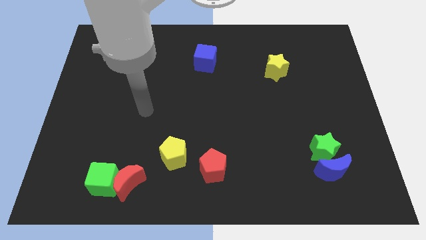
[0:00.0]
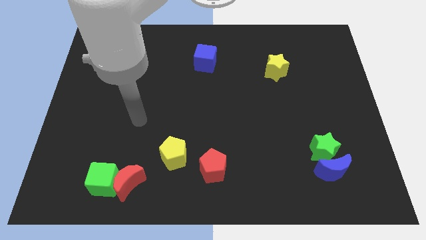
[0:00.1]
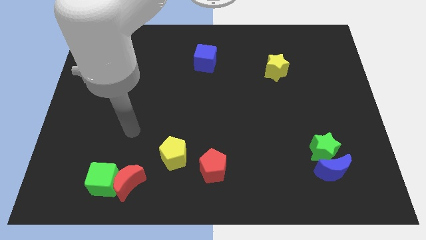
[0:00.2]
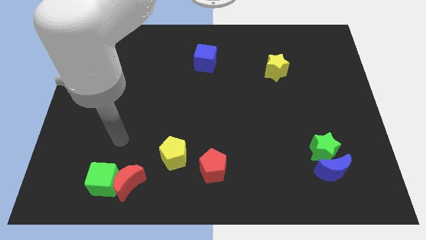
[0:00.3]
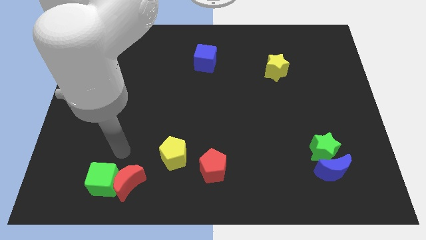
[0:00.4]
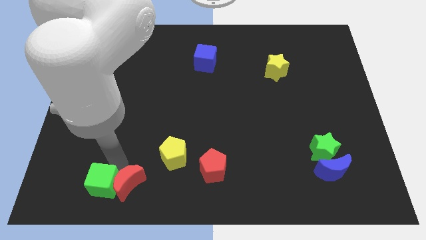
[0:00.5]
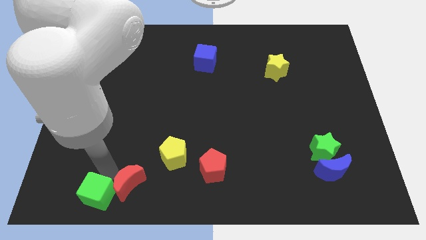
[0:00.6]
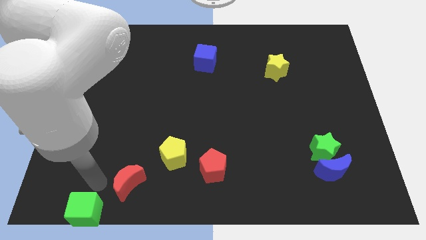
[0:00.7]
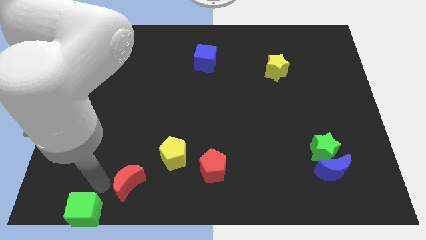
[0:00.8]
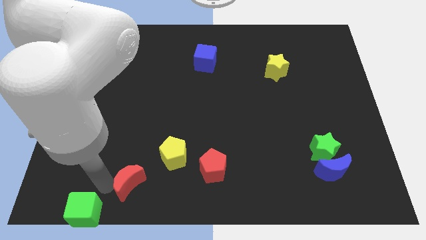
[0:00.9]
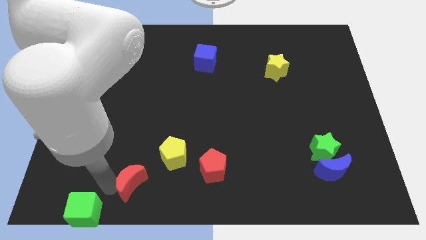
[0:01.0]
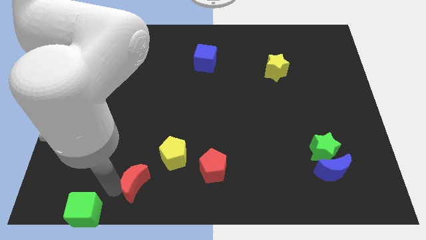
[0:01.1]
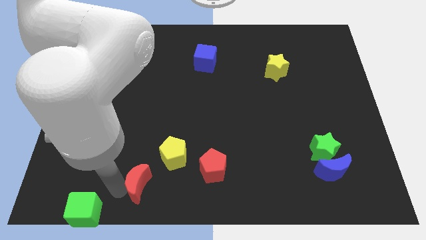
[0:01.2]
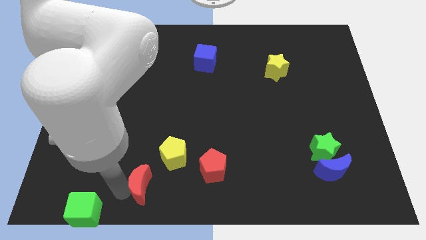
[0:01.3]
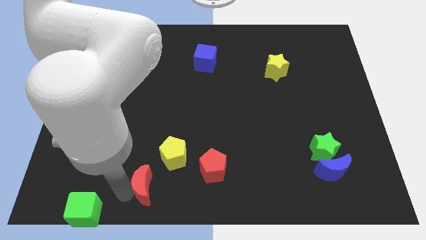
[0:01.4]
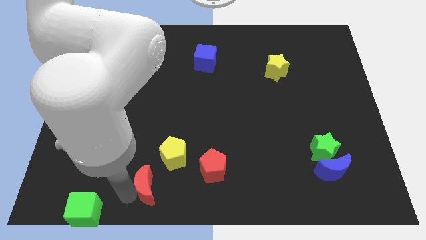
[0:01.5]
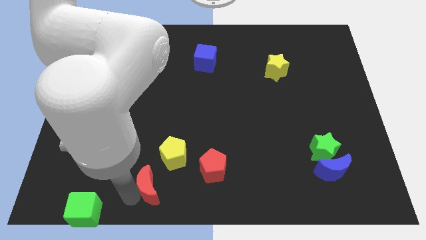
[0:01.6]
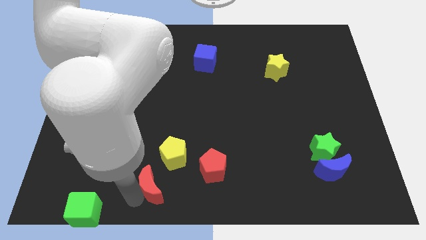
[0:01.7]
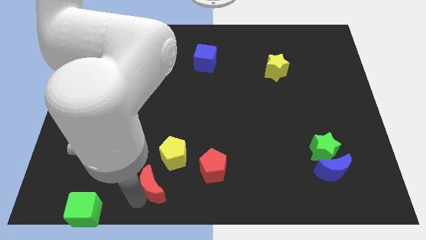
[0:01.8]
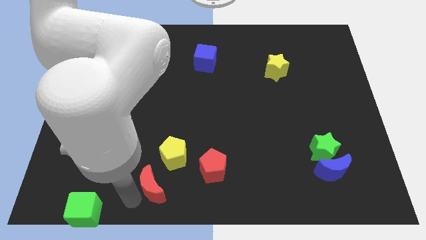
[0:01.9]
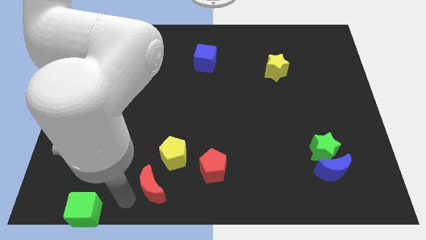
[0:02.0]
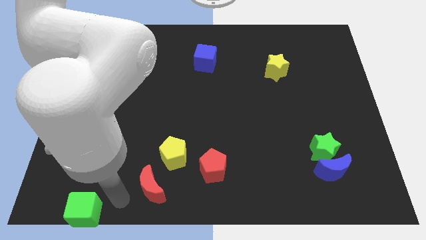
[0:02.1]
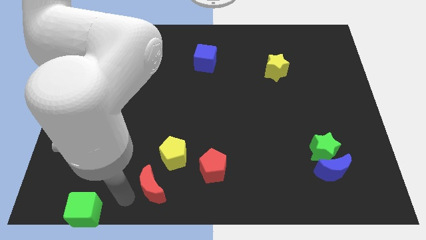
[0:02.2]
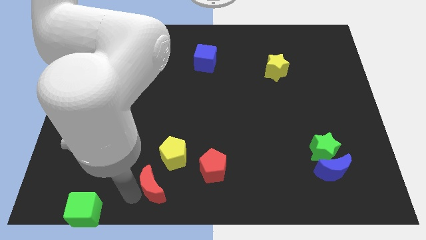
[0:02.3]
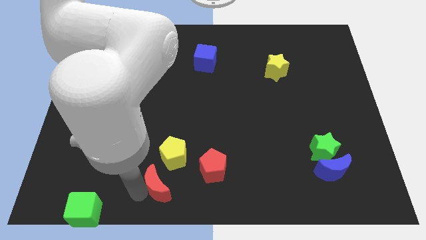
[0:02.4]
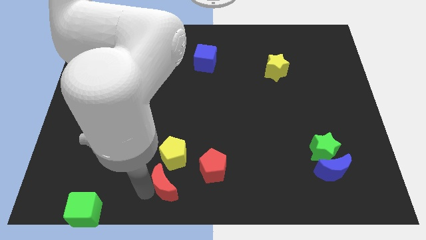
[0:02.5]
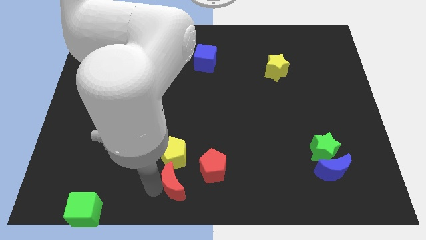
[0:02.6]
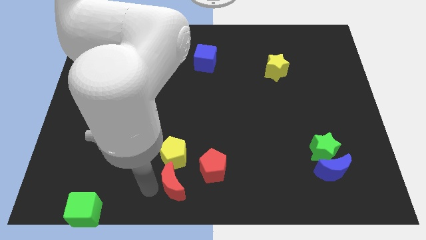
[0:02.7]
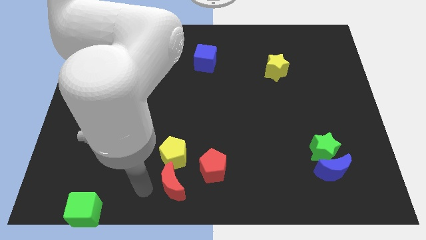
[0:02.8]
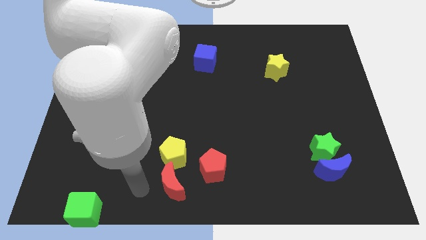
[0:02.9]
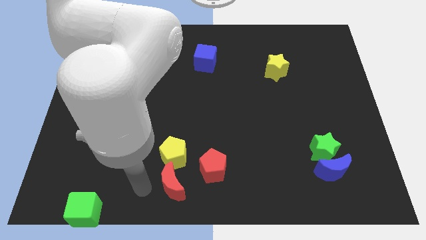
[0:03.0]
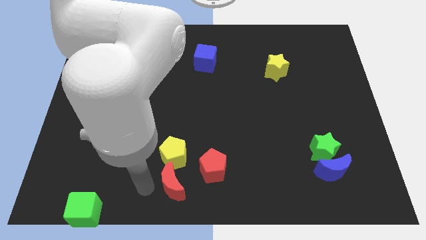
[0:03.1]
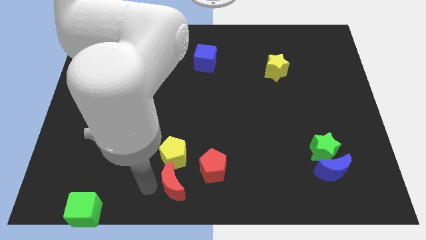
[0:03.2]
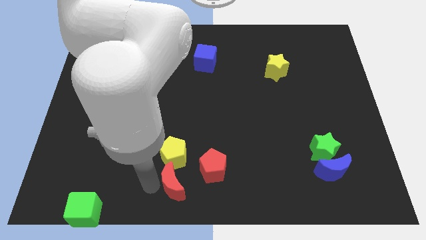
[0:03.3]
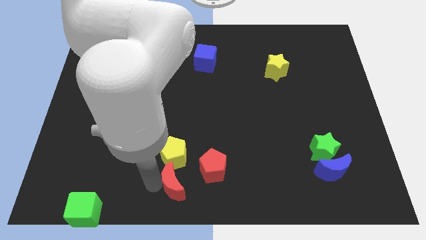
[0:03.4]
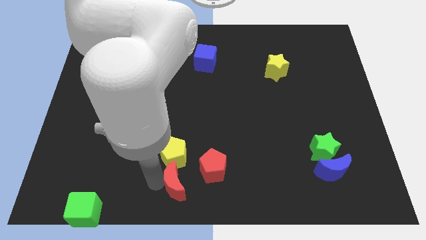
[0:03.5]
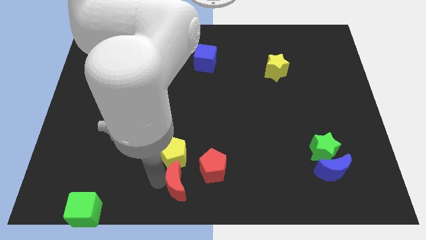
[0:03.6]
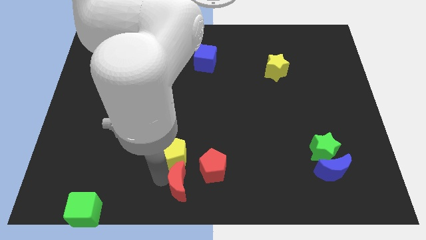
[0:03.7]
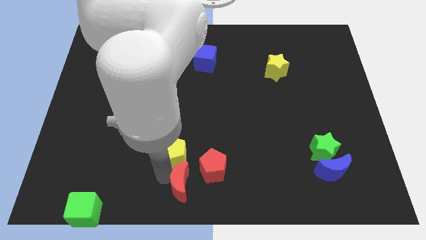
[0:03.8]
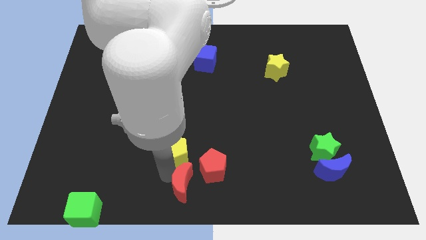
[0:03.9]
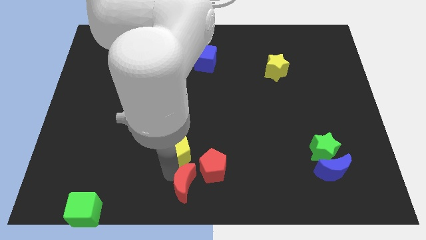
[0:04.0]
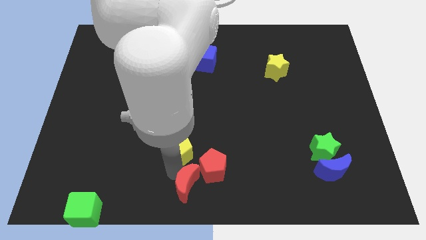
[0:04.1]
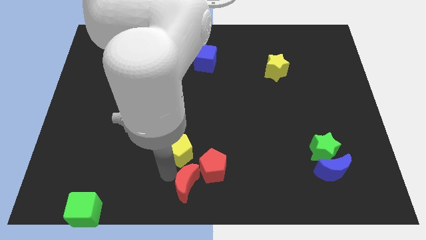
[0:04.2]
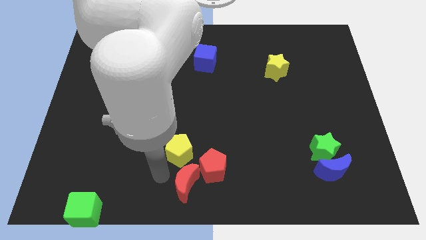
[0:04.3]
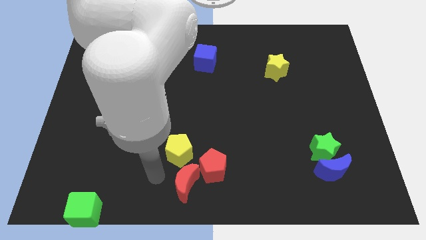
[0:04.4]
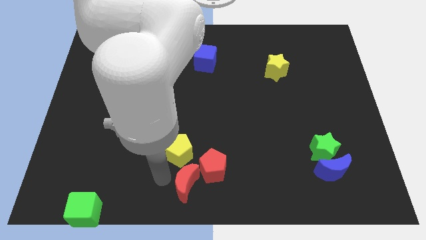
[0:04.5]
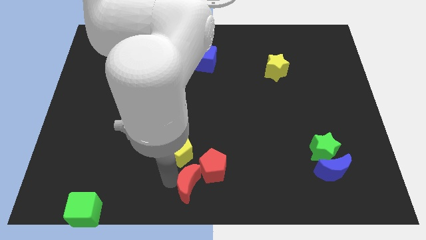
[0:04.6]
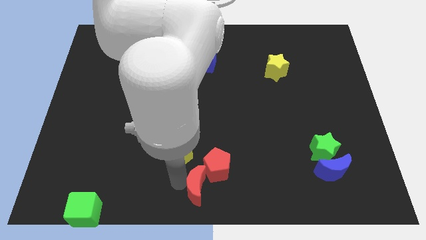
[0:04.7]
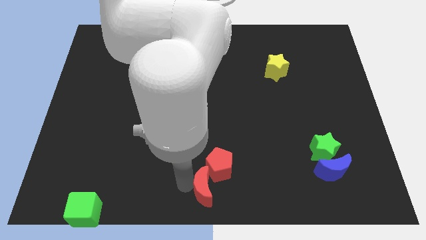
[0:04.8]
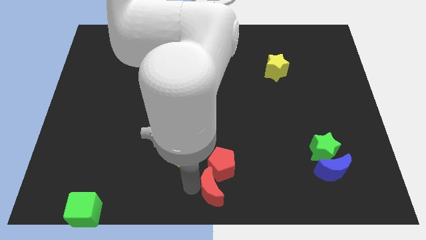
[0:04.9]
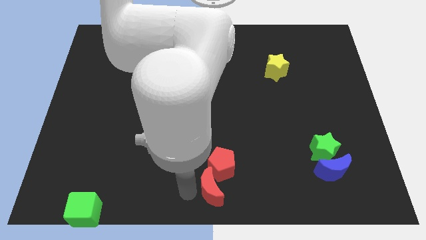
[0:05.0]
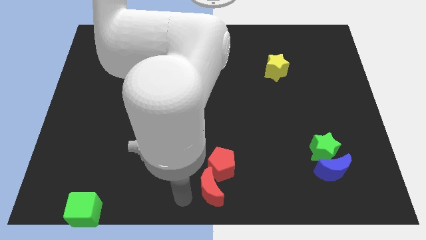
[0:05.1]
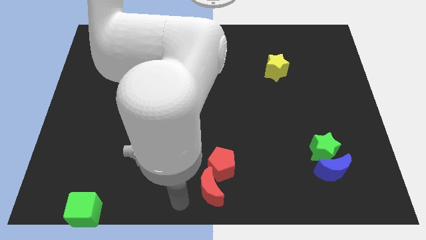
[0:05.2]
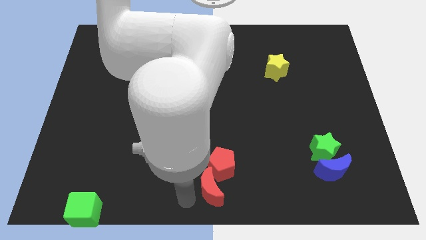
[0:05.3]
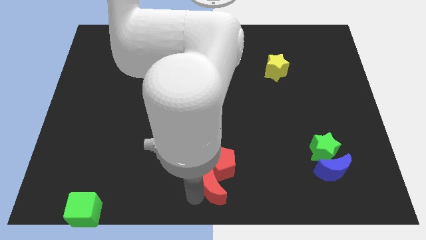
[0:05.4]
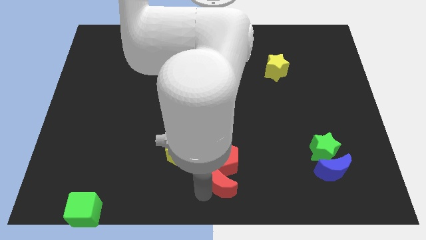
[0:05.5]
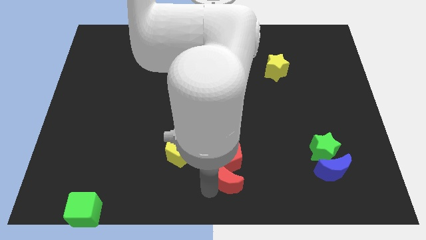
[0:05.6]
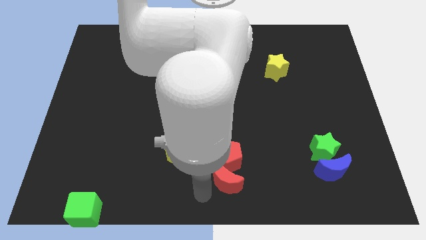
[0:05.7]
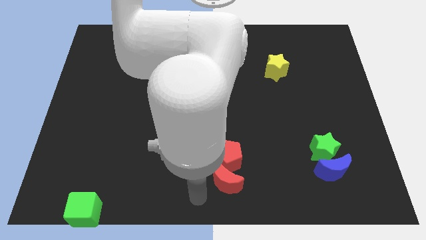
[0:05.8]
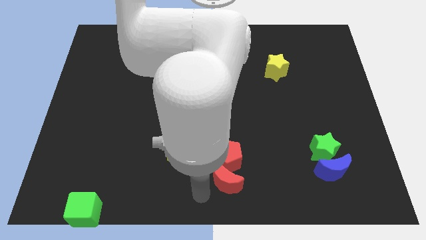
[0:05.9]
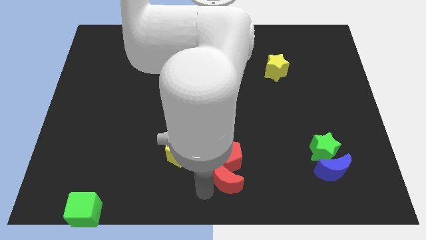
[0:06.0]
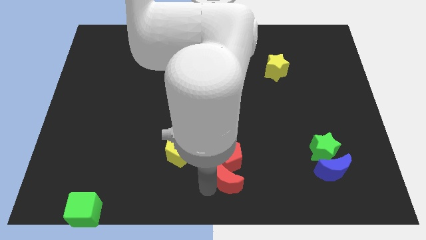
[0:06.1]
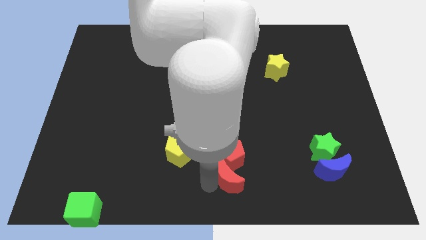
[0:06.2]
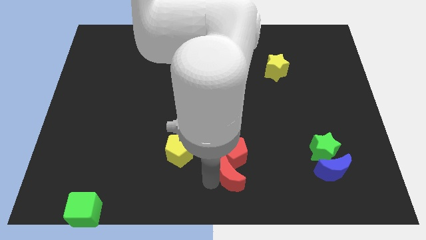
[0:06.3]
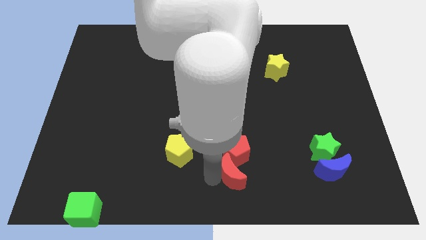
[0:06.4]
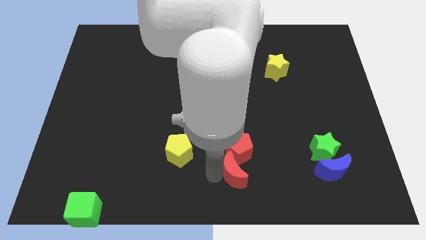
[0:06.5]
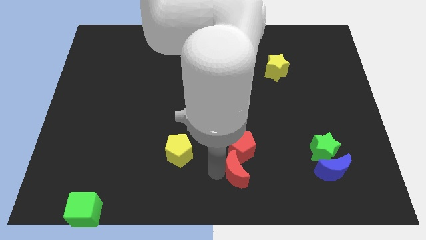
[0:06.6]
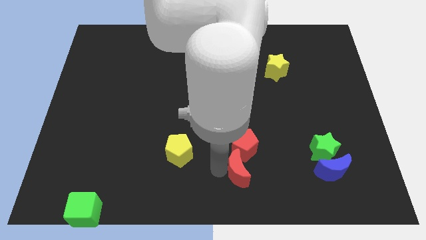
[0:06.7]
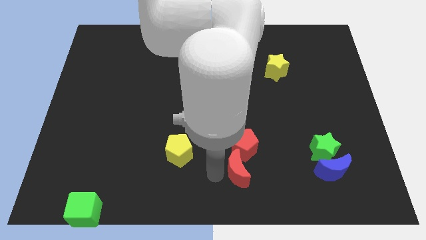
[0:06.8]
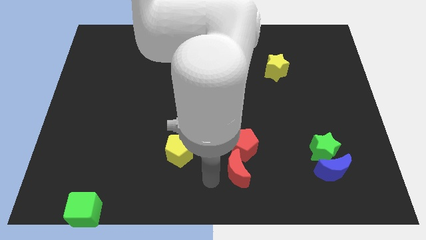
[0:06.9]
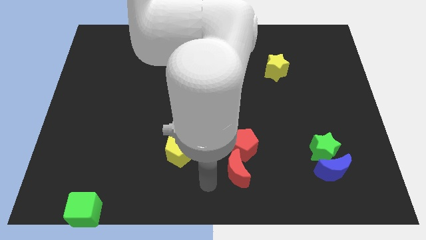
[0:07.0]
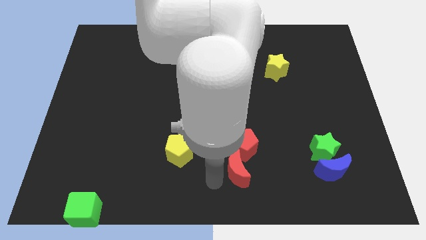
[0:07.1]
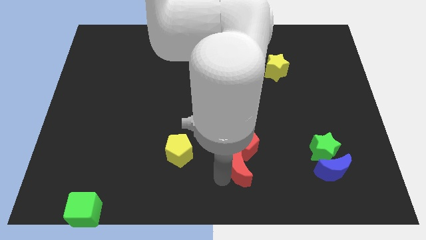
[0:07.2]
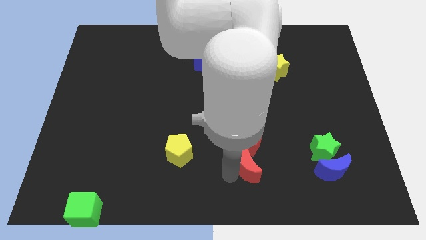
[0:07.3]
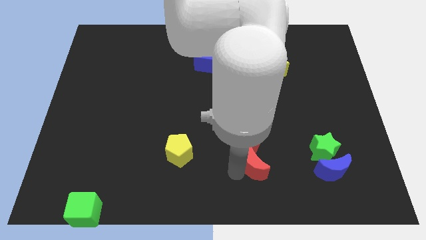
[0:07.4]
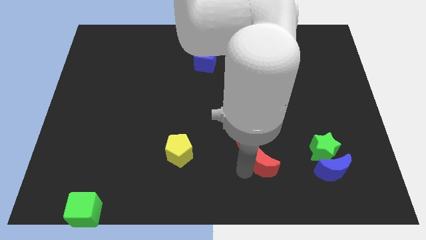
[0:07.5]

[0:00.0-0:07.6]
put the red moon just left of the green star
